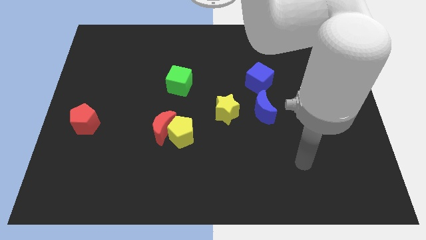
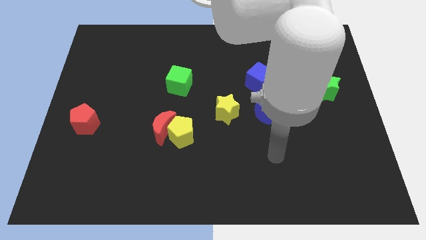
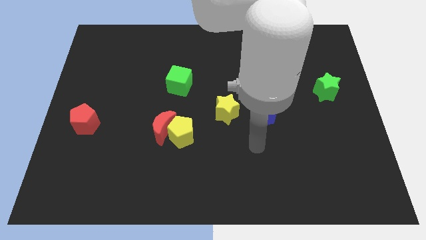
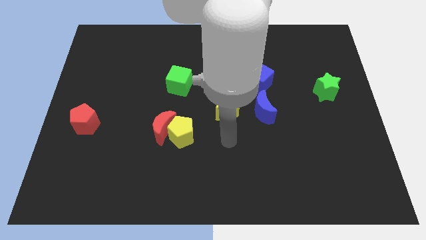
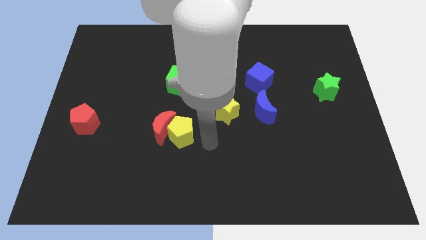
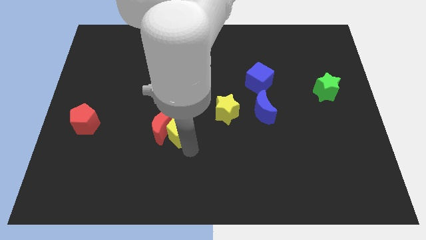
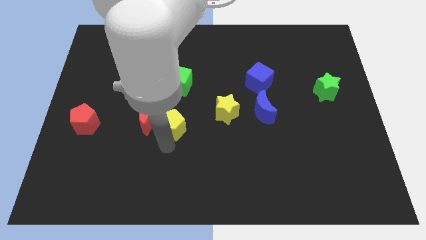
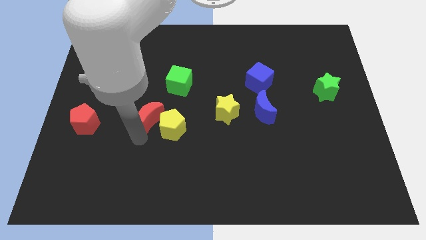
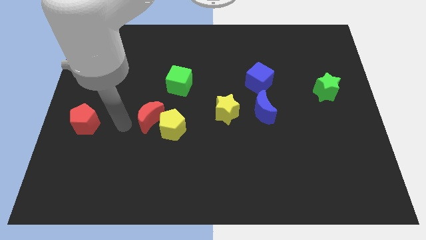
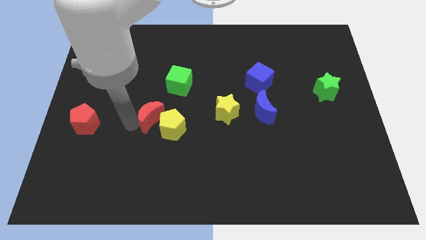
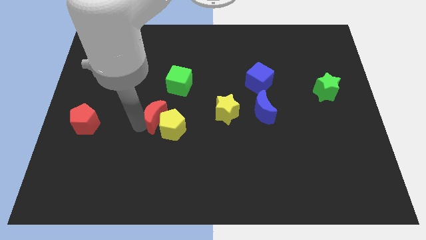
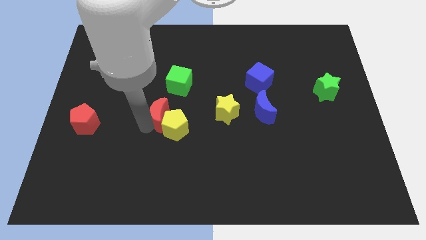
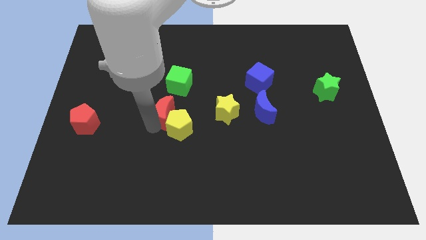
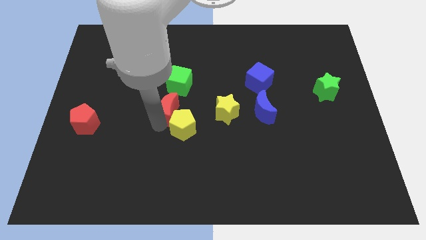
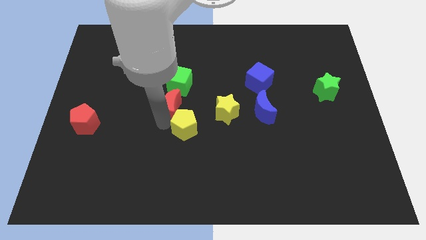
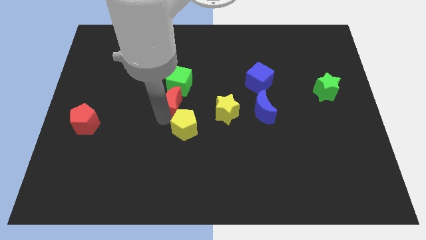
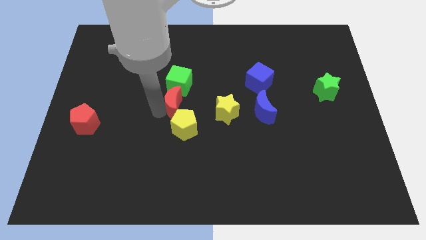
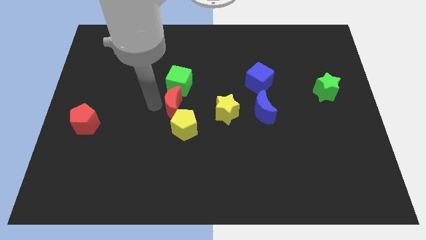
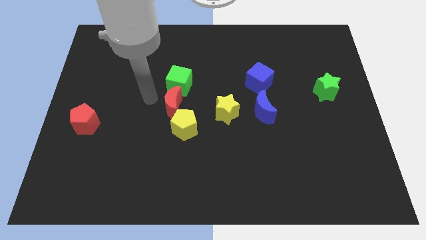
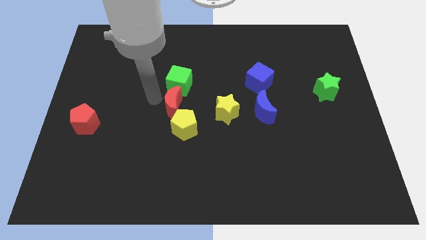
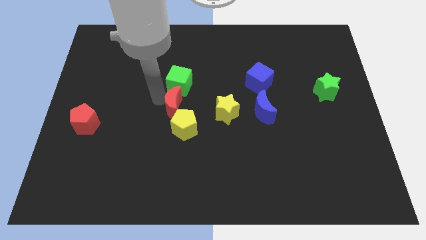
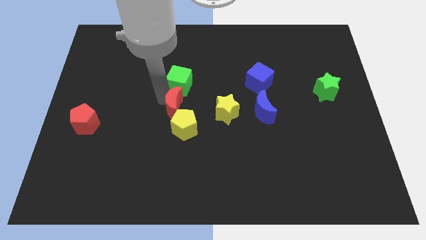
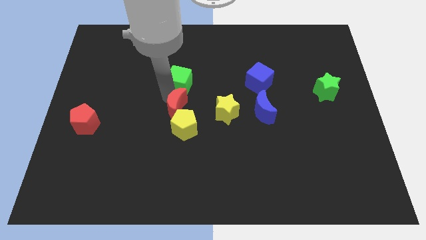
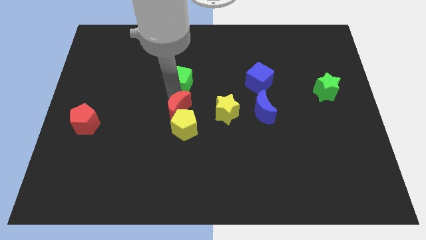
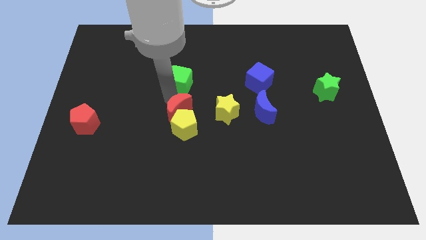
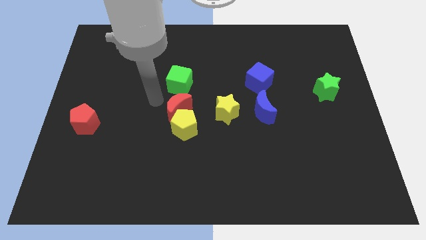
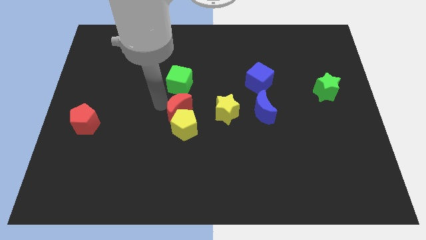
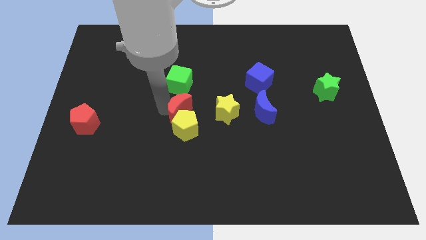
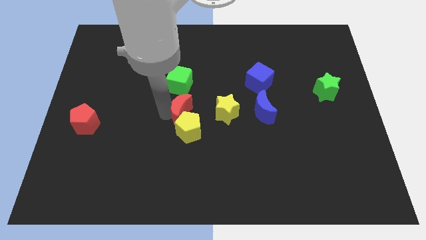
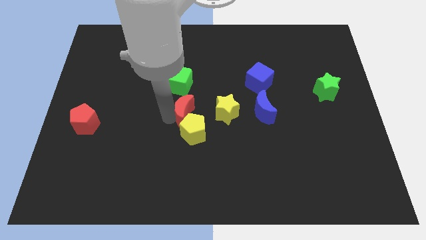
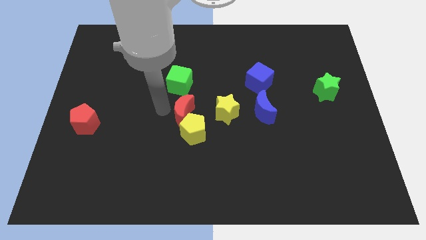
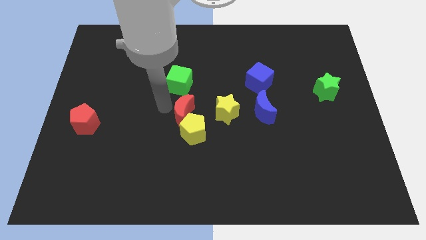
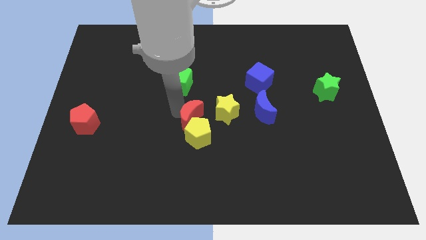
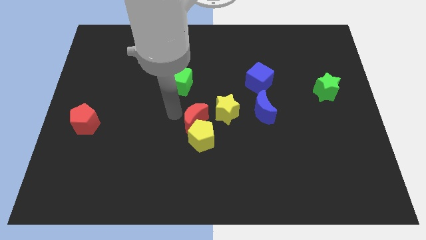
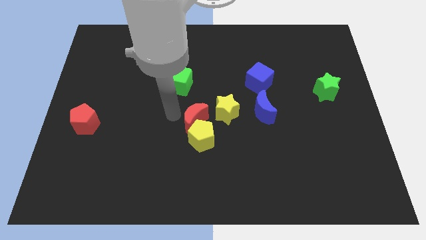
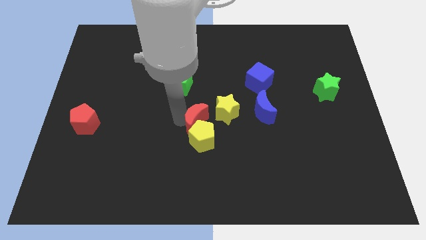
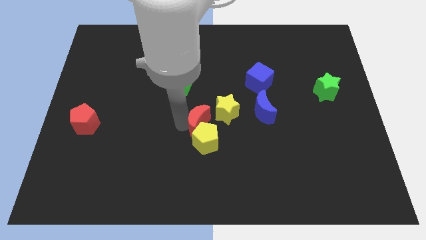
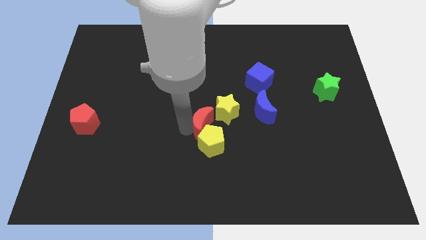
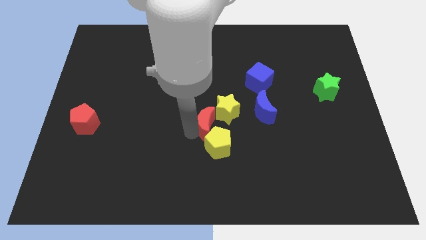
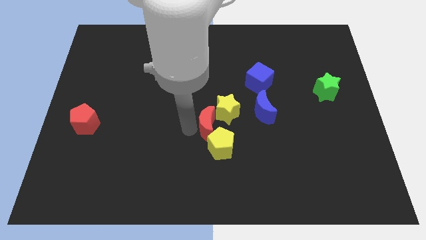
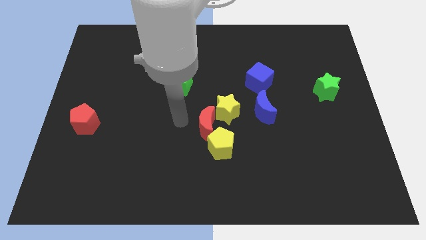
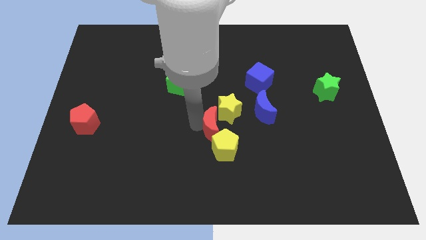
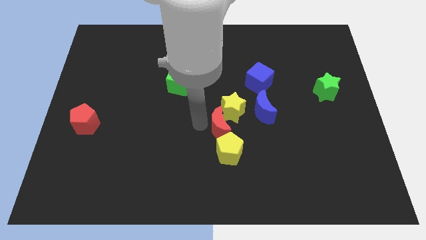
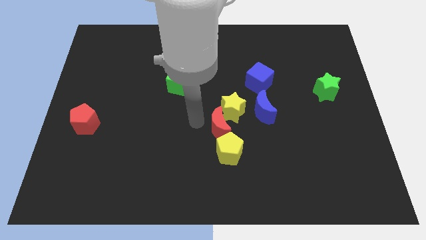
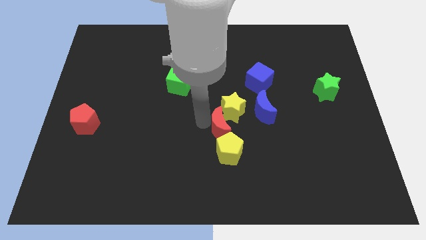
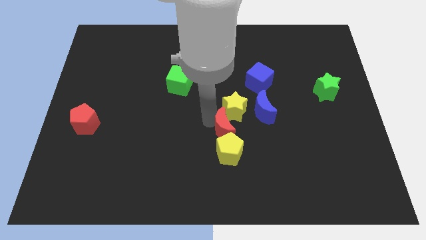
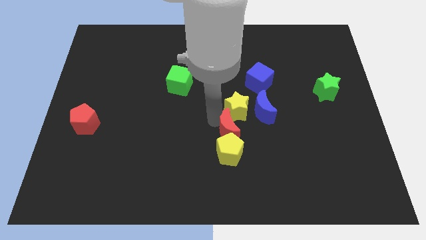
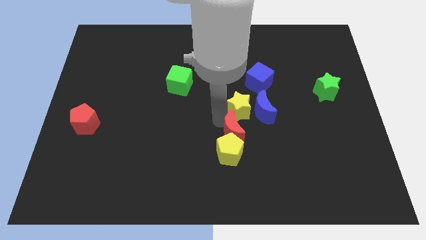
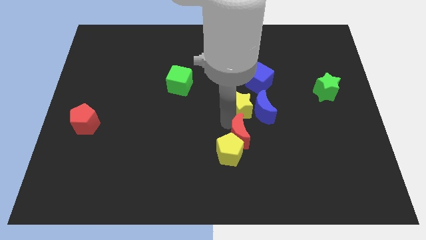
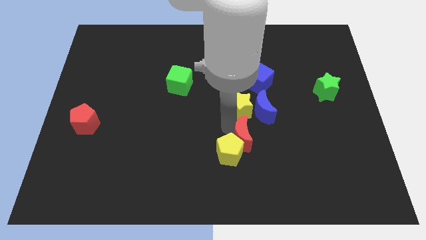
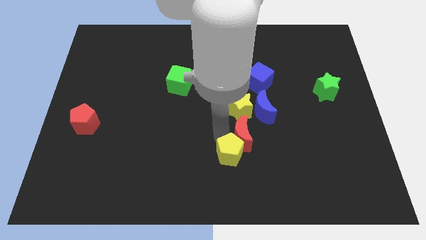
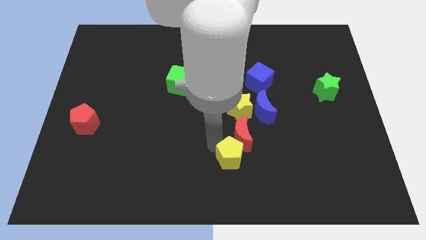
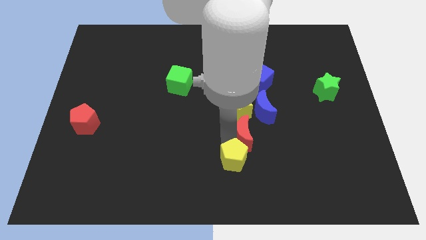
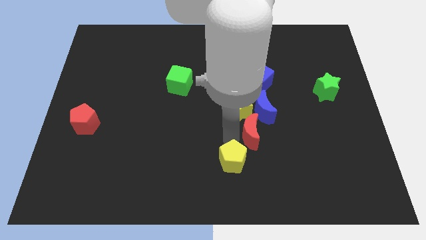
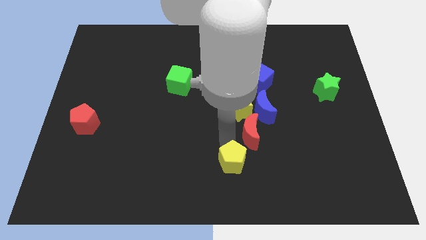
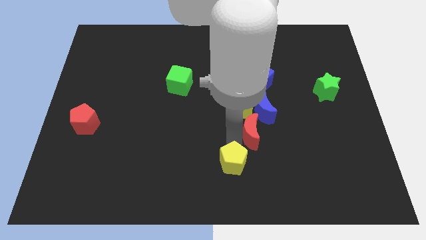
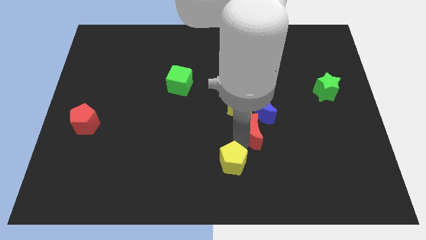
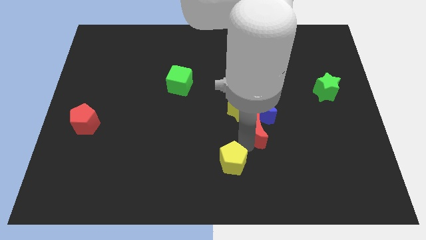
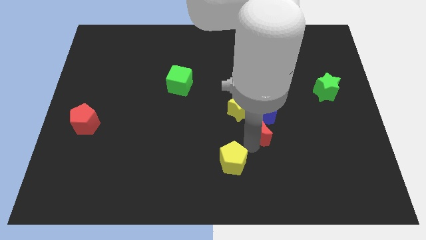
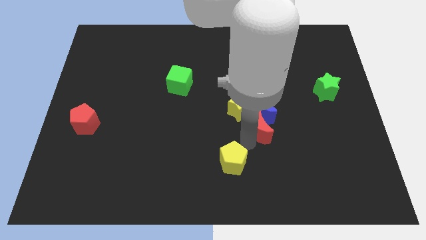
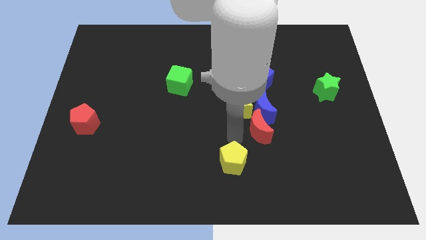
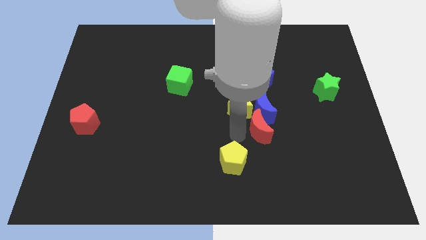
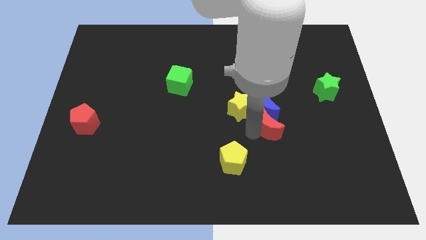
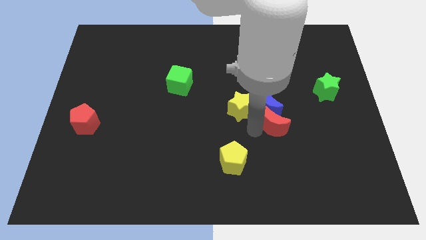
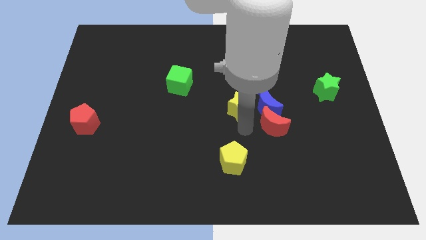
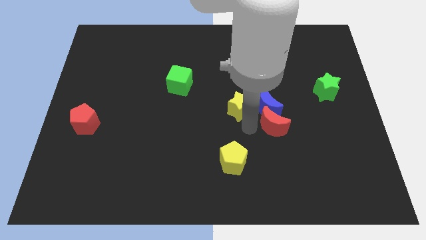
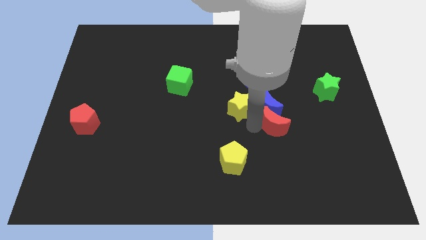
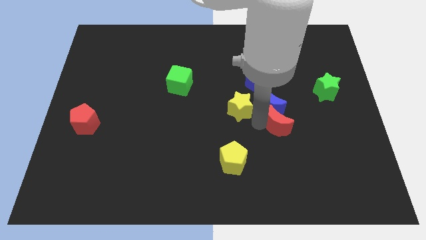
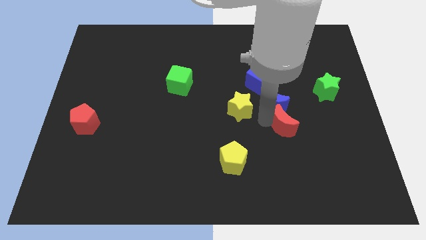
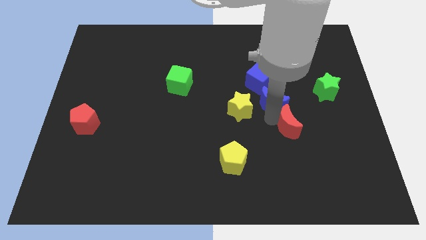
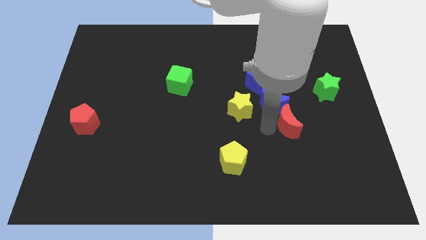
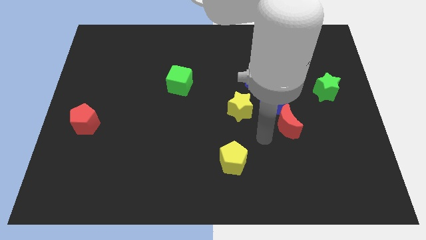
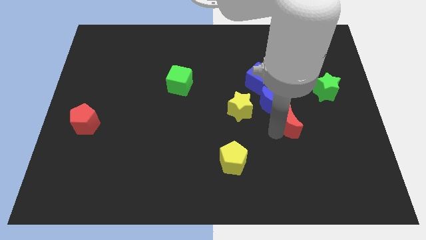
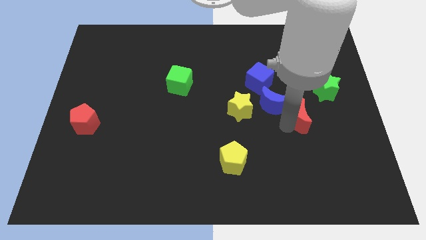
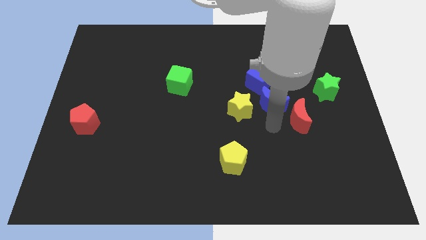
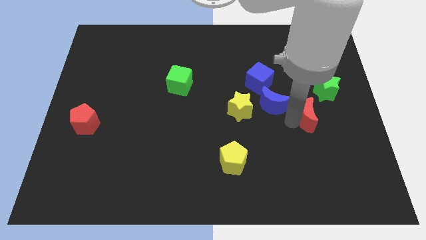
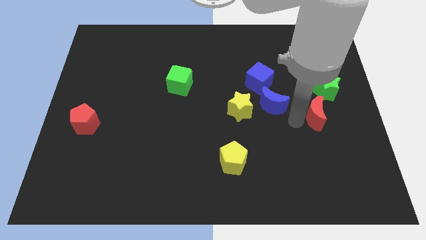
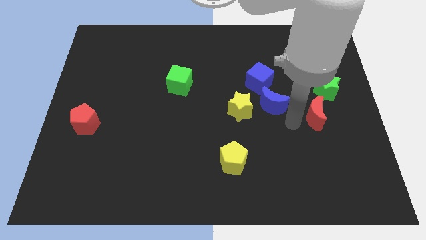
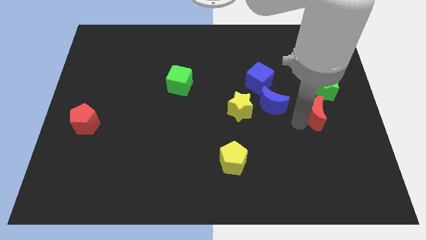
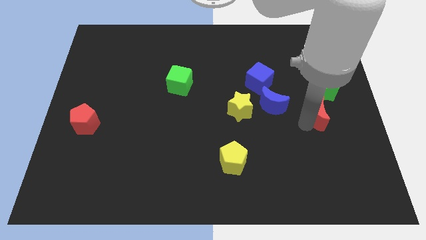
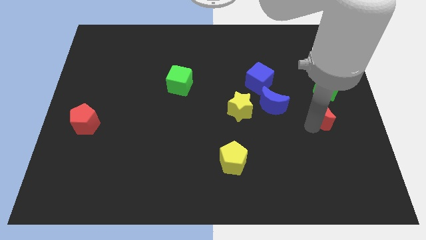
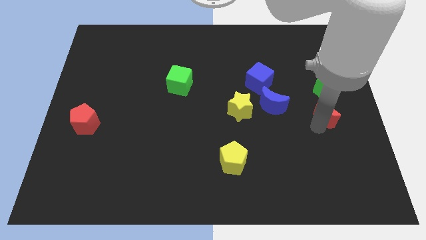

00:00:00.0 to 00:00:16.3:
move the red moon to the right side of the board
